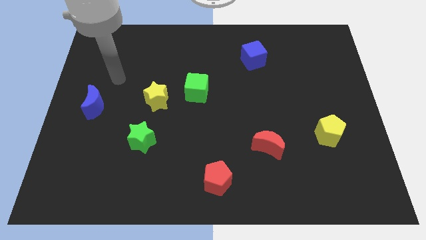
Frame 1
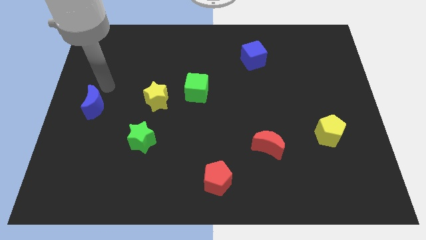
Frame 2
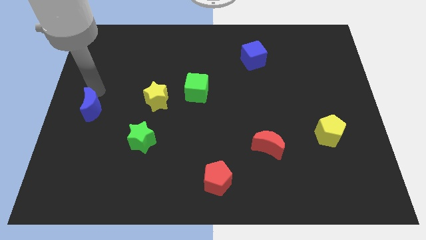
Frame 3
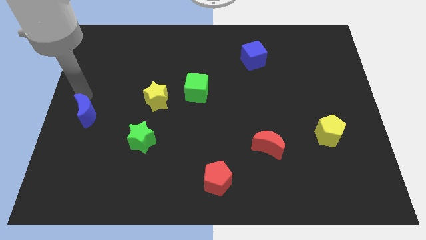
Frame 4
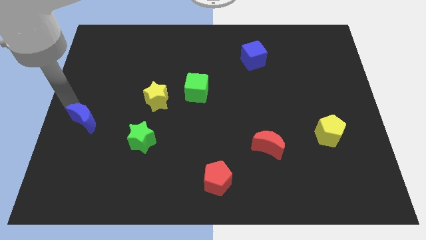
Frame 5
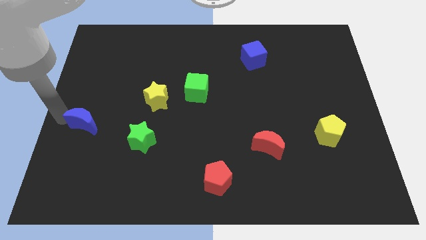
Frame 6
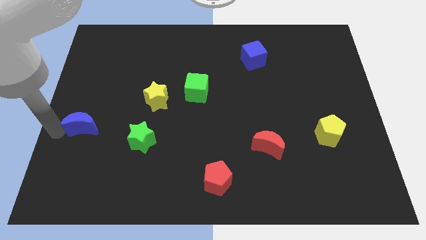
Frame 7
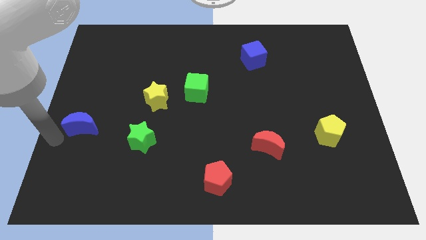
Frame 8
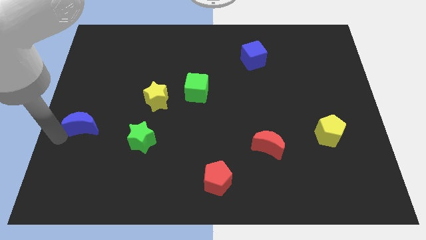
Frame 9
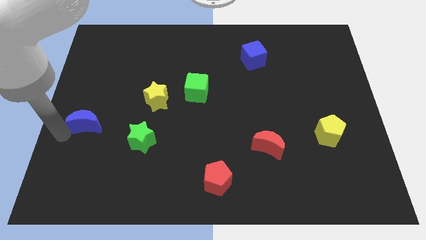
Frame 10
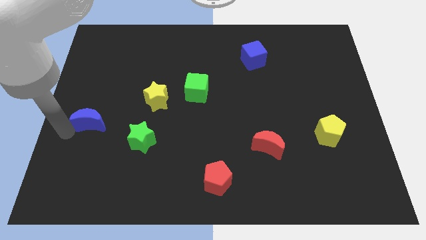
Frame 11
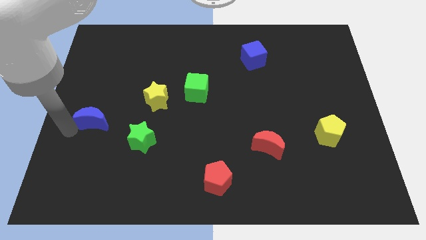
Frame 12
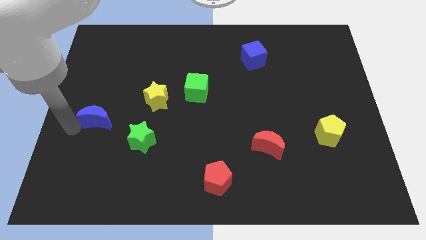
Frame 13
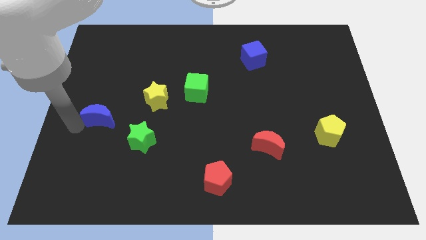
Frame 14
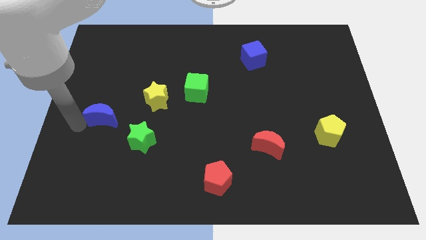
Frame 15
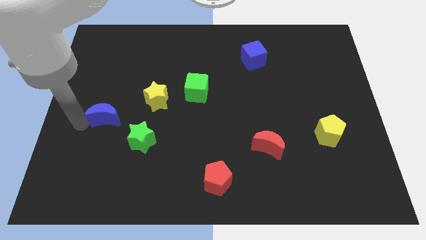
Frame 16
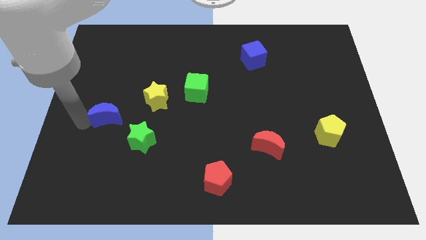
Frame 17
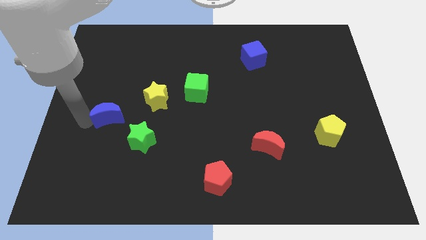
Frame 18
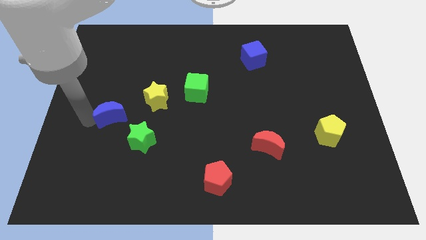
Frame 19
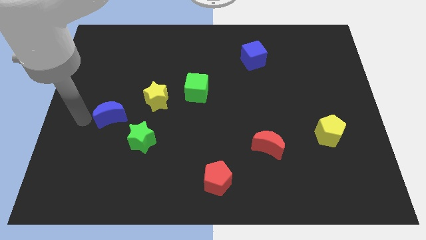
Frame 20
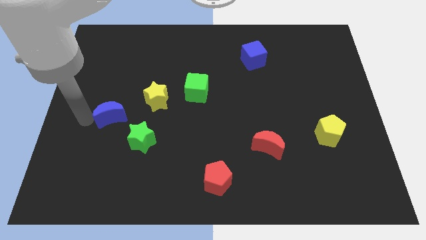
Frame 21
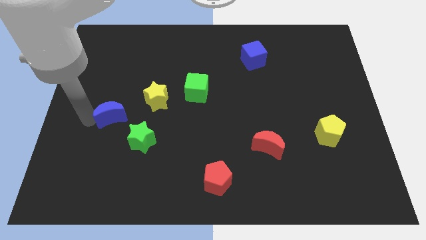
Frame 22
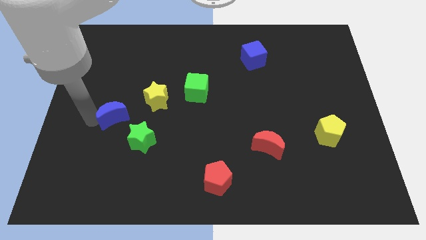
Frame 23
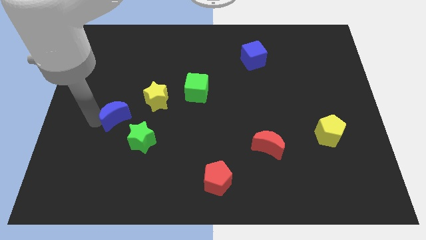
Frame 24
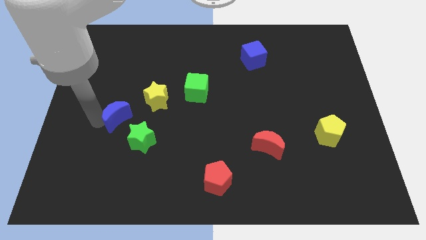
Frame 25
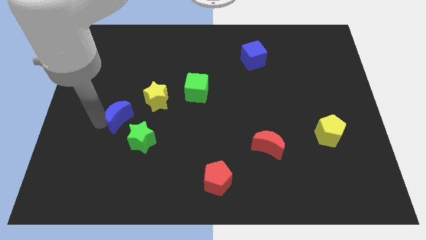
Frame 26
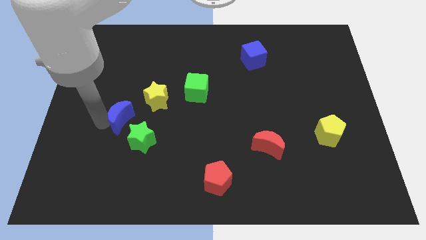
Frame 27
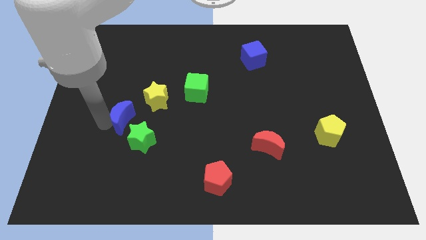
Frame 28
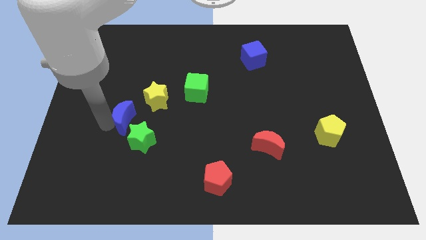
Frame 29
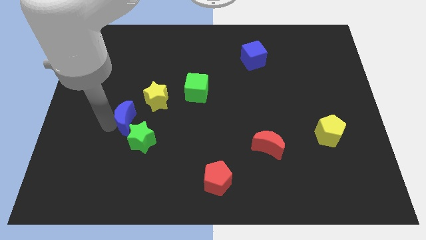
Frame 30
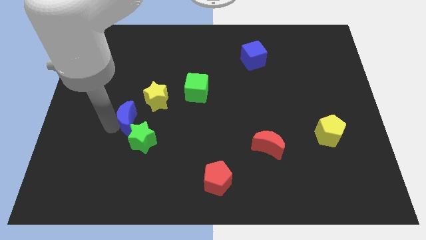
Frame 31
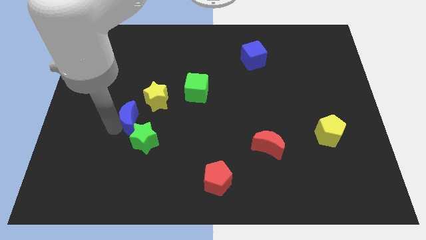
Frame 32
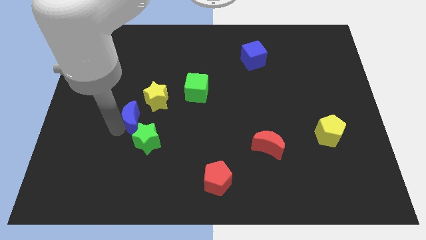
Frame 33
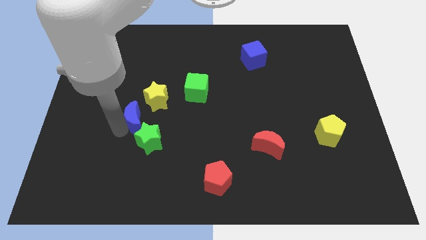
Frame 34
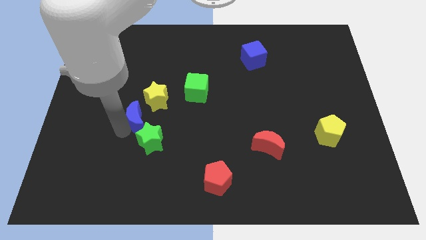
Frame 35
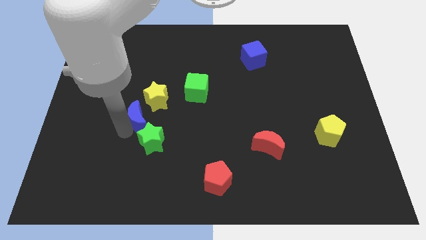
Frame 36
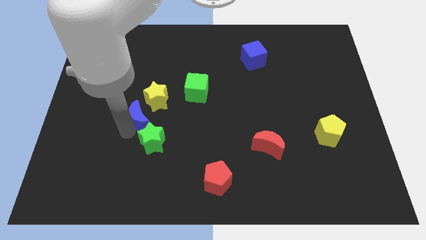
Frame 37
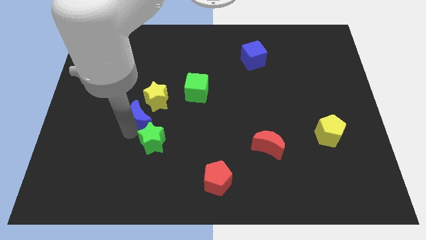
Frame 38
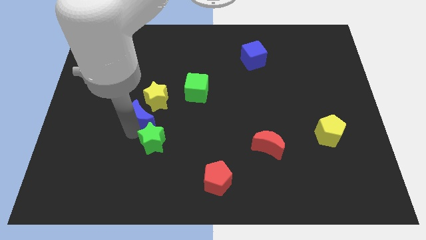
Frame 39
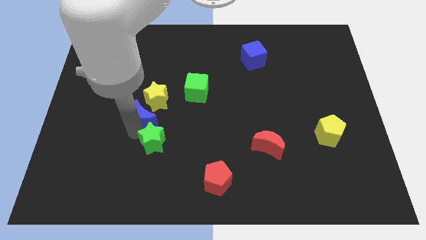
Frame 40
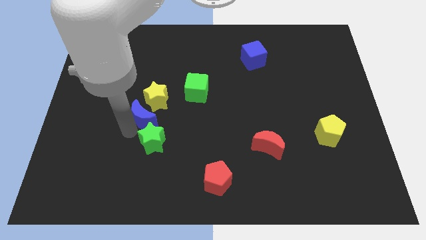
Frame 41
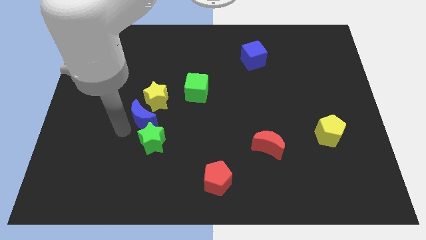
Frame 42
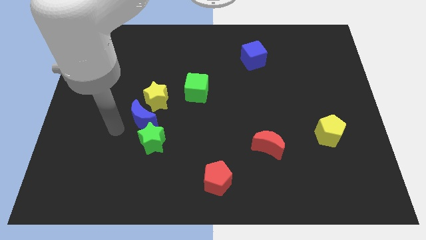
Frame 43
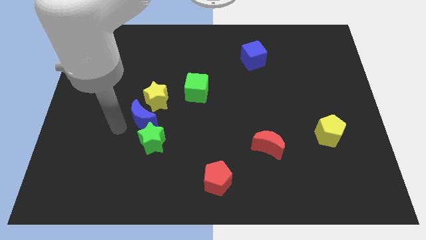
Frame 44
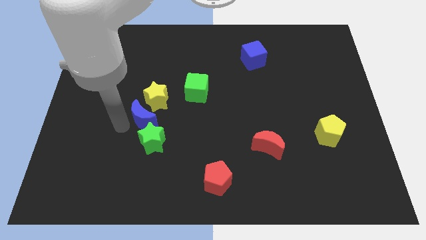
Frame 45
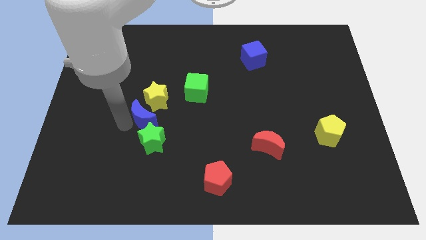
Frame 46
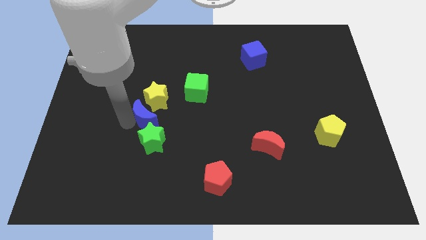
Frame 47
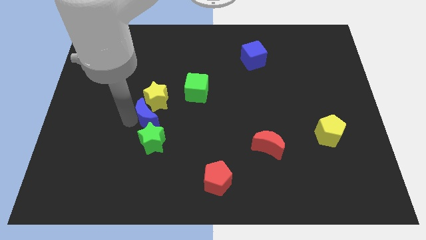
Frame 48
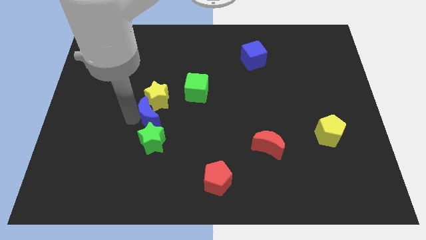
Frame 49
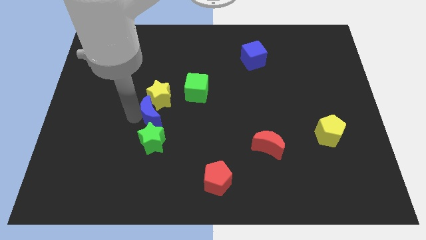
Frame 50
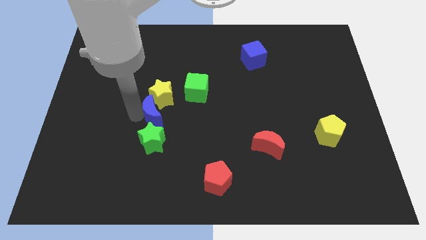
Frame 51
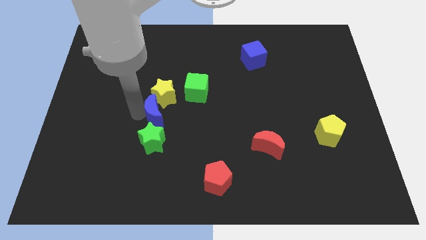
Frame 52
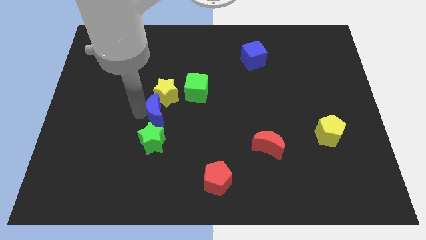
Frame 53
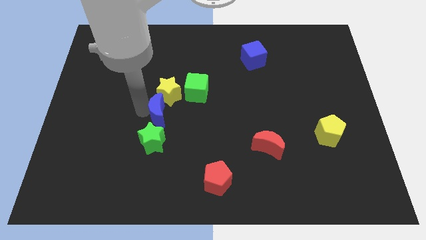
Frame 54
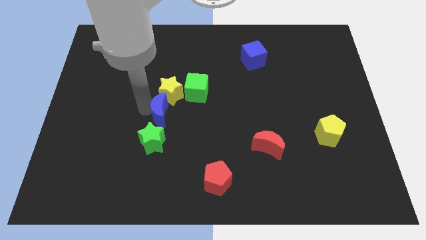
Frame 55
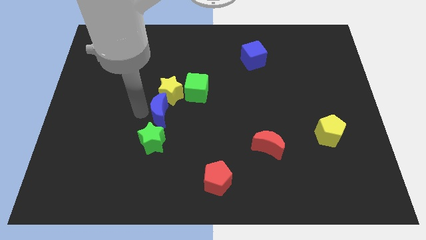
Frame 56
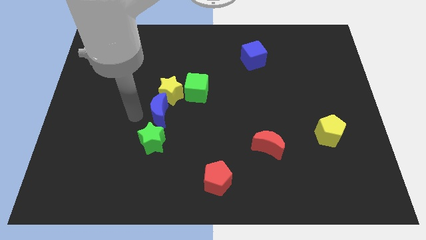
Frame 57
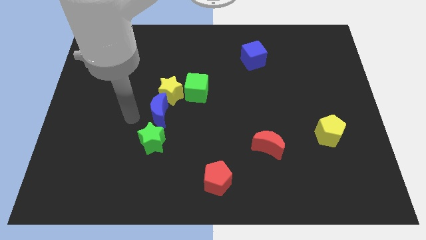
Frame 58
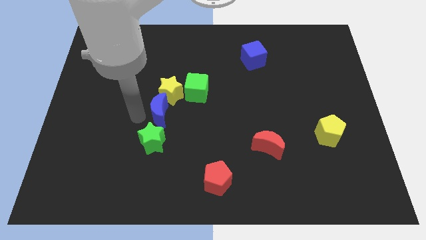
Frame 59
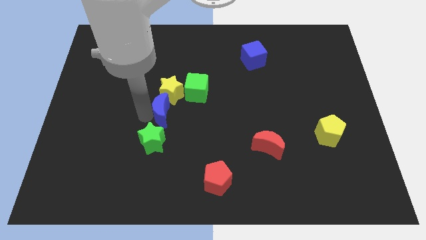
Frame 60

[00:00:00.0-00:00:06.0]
put the blue moon to the middle of the board
